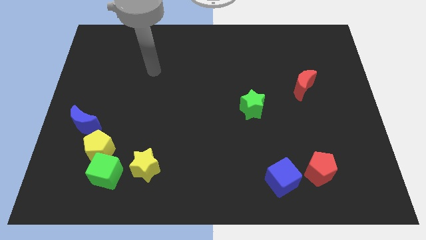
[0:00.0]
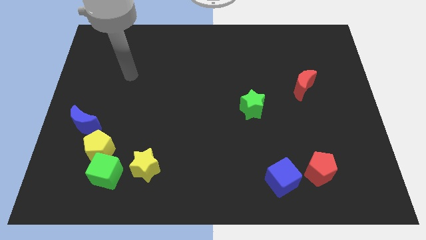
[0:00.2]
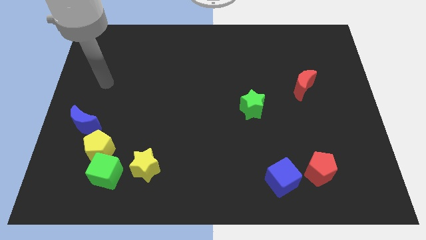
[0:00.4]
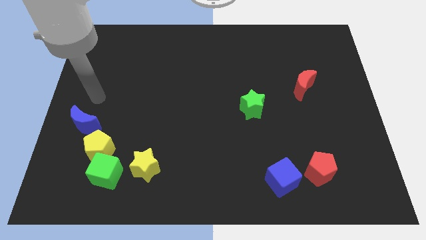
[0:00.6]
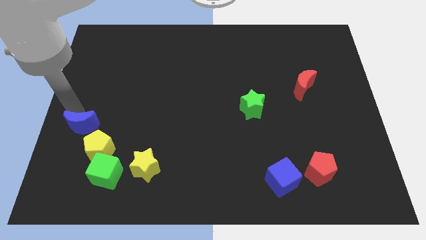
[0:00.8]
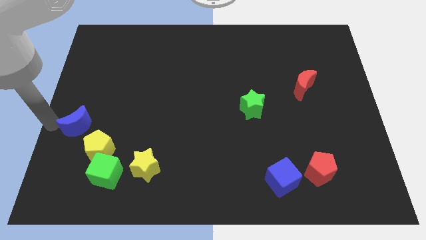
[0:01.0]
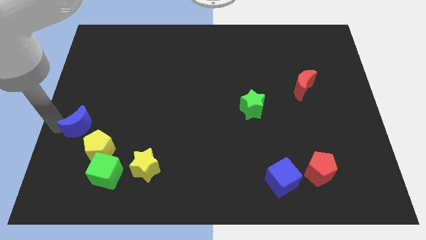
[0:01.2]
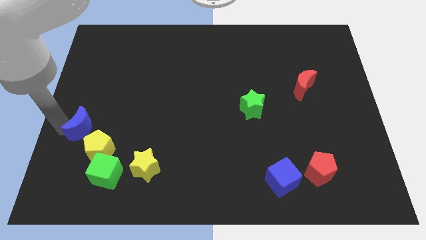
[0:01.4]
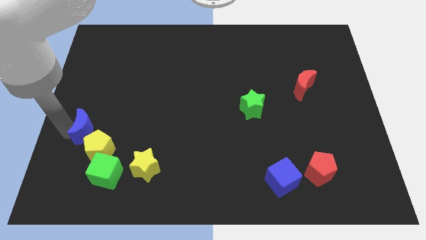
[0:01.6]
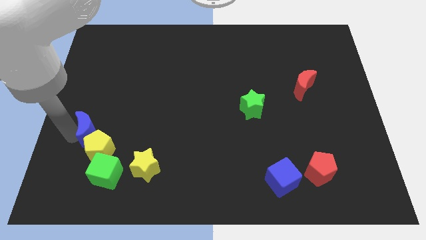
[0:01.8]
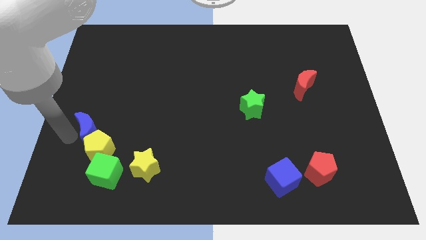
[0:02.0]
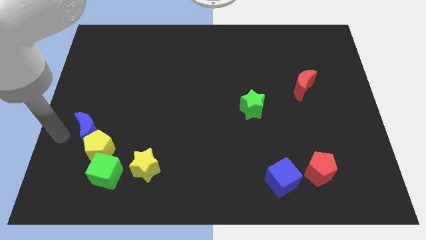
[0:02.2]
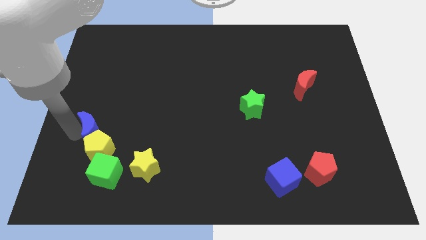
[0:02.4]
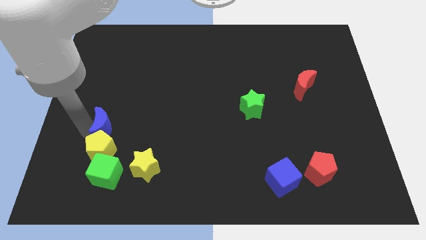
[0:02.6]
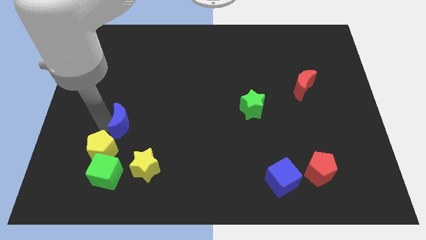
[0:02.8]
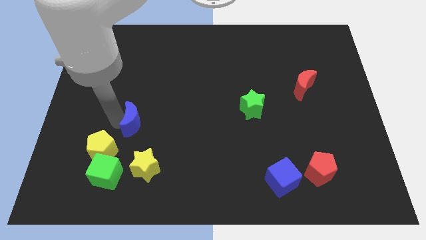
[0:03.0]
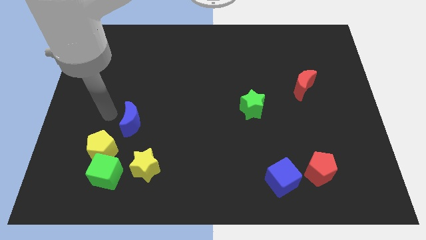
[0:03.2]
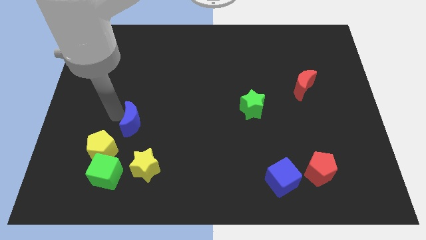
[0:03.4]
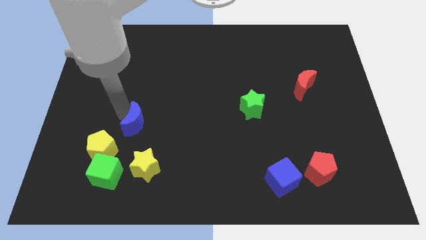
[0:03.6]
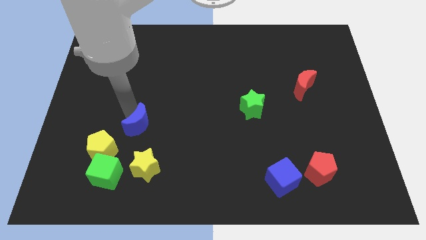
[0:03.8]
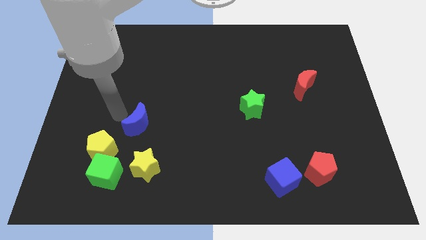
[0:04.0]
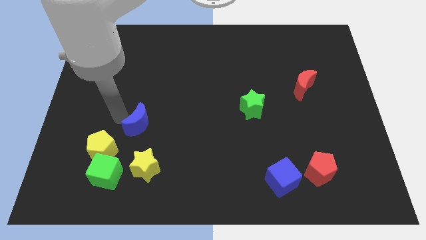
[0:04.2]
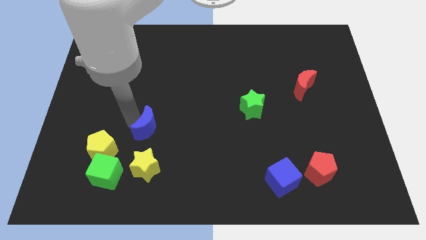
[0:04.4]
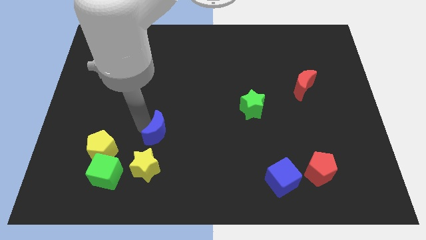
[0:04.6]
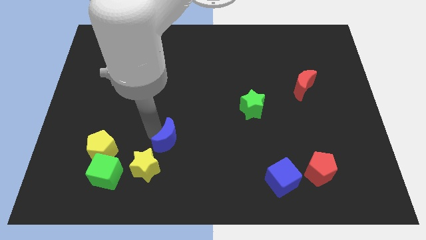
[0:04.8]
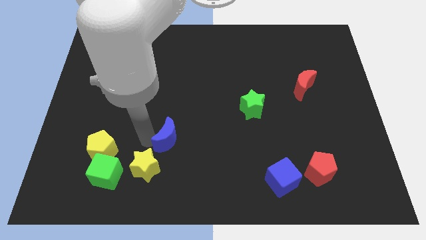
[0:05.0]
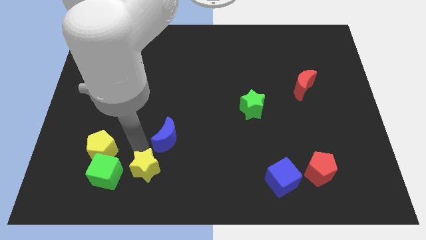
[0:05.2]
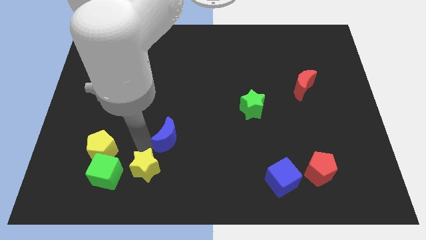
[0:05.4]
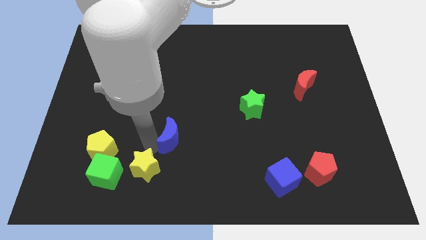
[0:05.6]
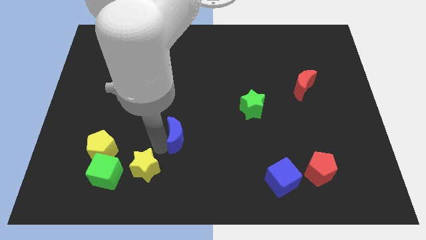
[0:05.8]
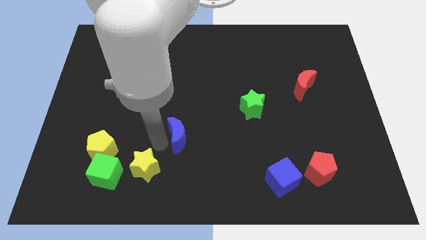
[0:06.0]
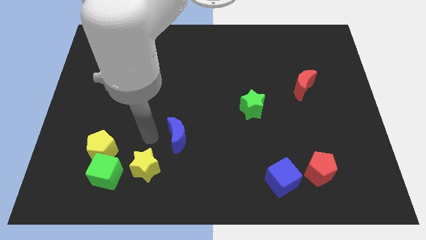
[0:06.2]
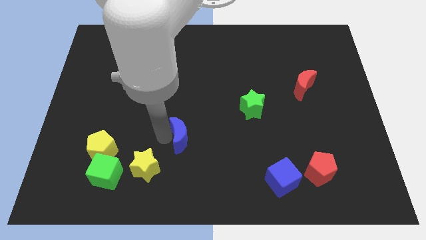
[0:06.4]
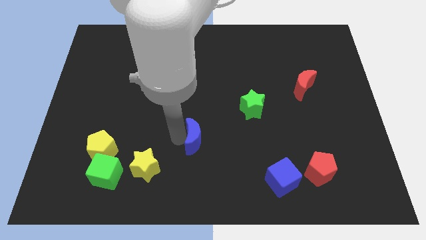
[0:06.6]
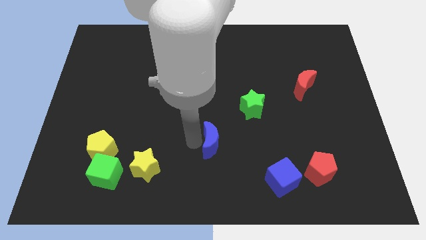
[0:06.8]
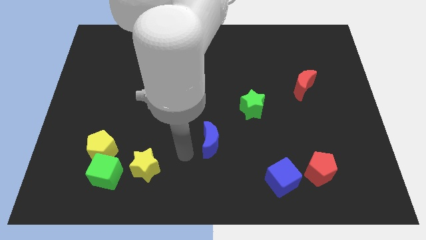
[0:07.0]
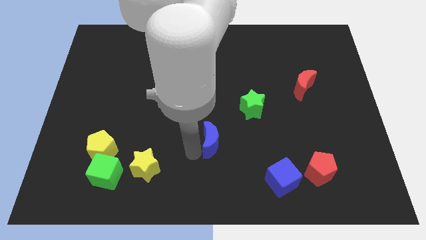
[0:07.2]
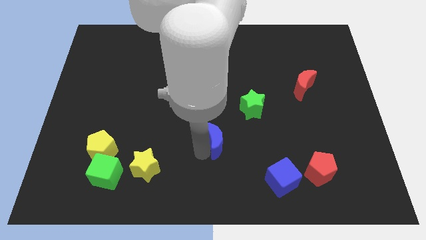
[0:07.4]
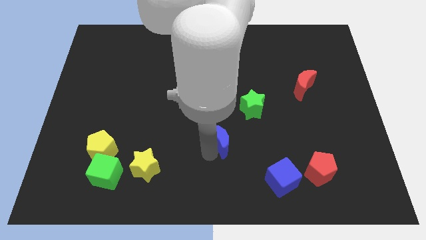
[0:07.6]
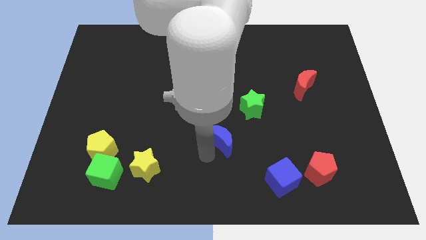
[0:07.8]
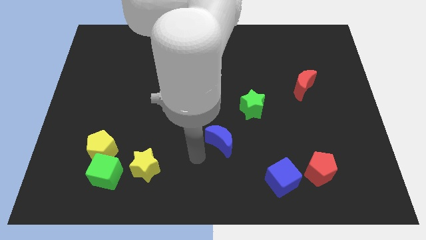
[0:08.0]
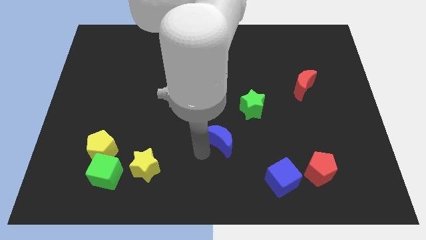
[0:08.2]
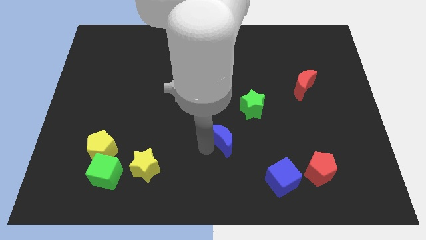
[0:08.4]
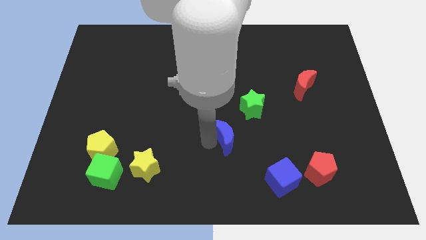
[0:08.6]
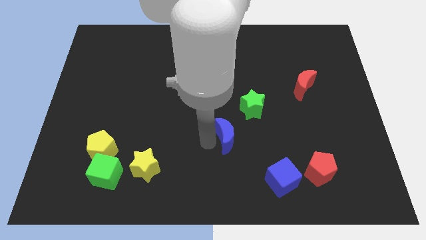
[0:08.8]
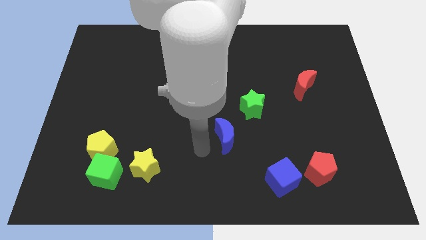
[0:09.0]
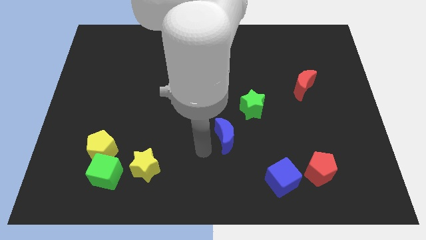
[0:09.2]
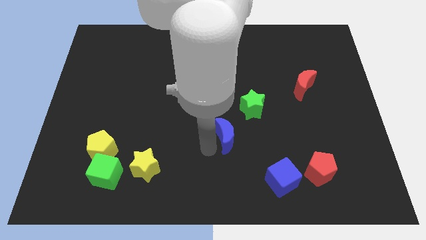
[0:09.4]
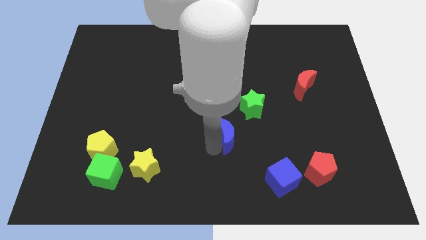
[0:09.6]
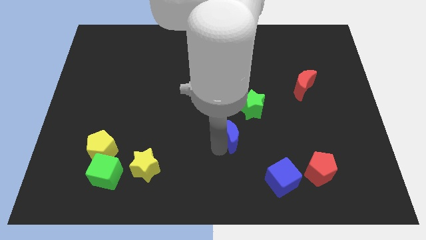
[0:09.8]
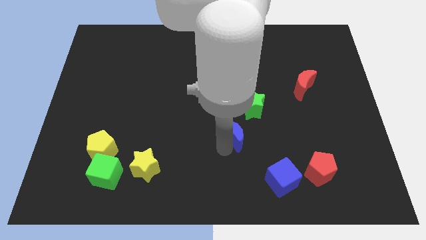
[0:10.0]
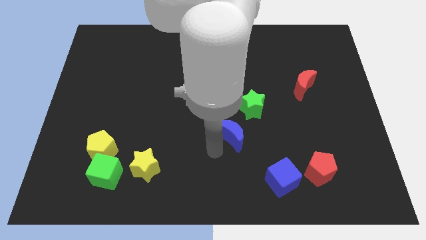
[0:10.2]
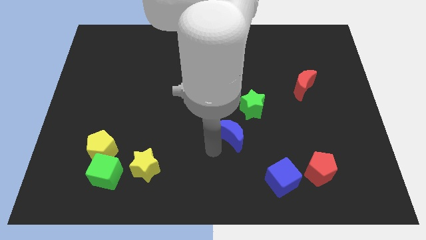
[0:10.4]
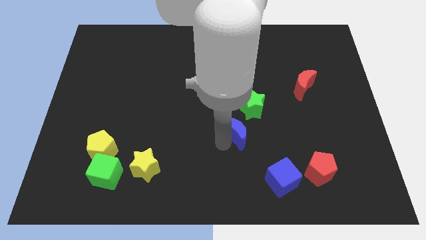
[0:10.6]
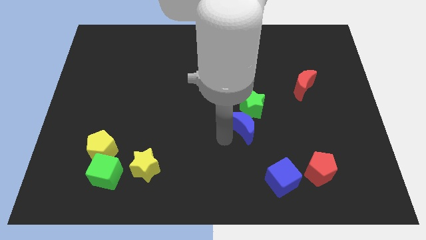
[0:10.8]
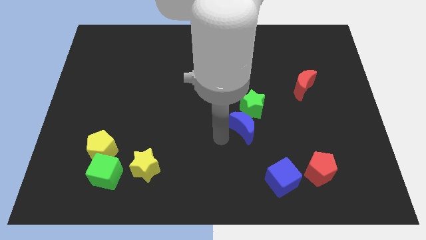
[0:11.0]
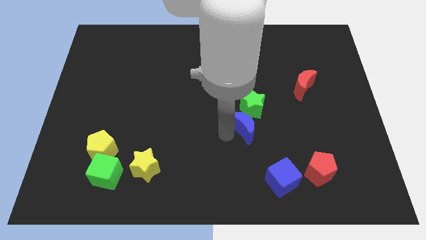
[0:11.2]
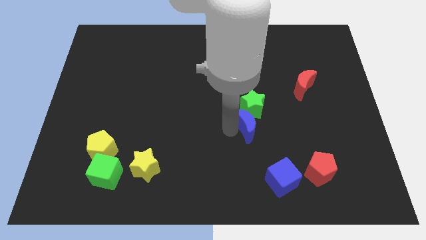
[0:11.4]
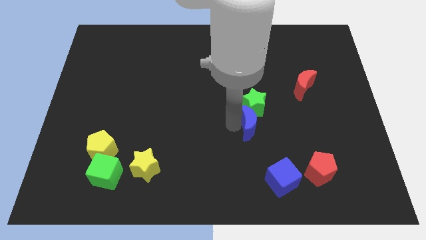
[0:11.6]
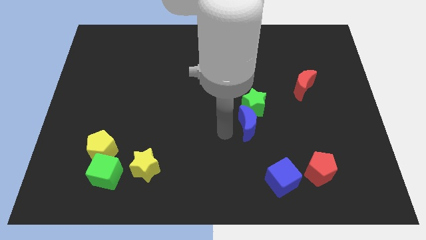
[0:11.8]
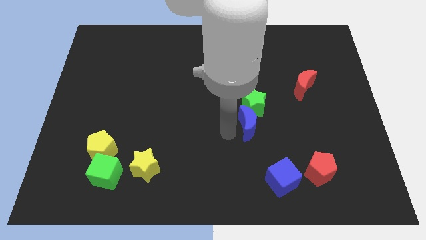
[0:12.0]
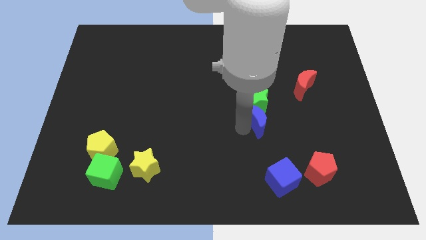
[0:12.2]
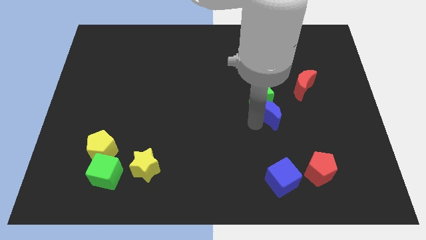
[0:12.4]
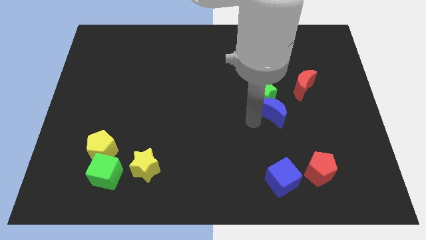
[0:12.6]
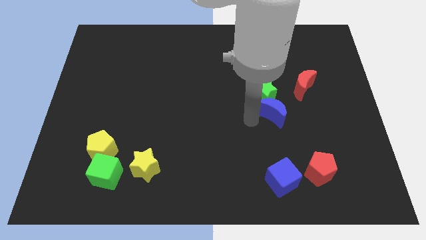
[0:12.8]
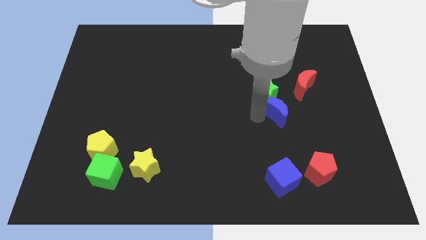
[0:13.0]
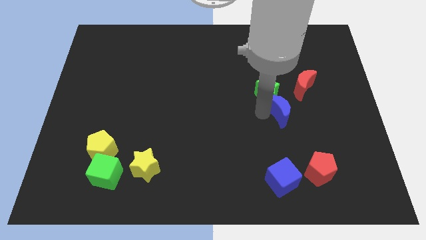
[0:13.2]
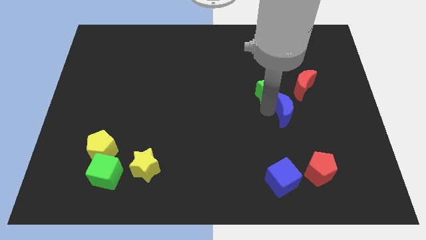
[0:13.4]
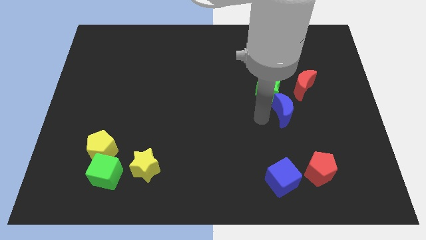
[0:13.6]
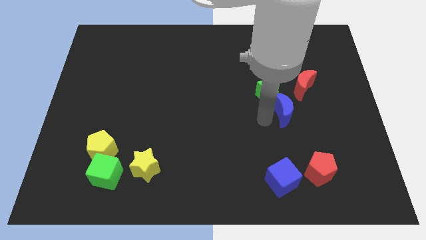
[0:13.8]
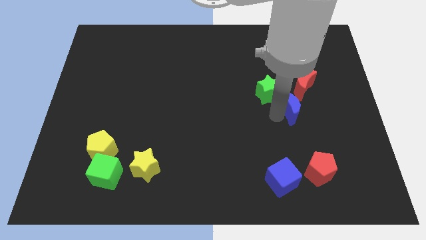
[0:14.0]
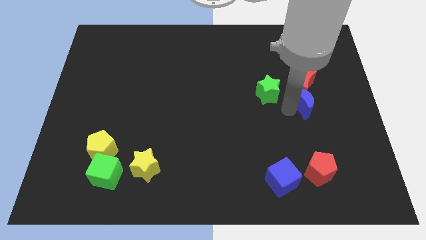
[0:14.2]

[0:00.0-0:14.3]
put the blue moon diagonally down and to the right of the red moon
